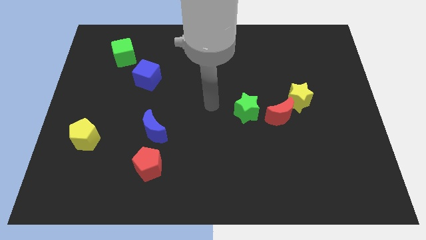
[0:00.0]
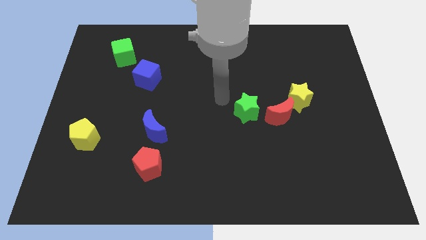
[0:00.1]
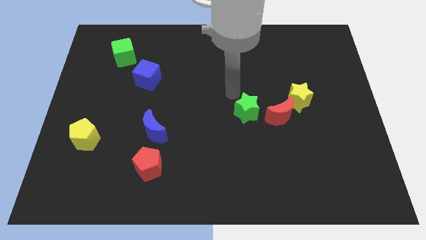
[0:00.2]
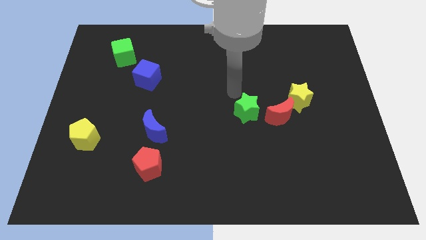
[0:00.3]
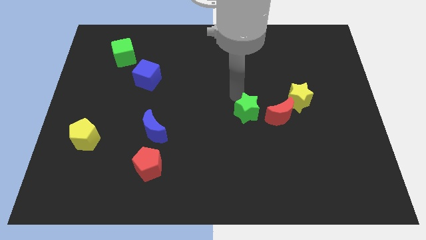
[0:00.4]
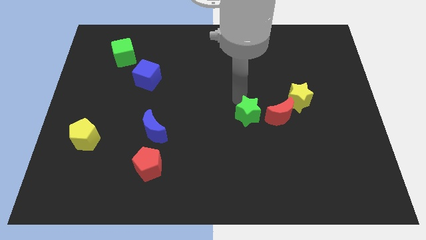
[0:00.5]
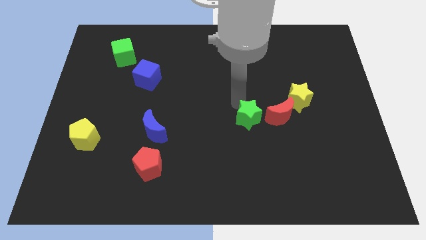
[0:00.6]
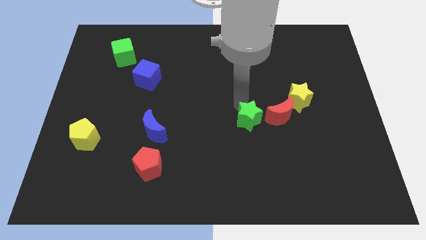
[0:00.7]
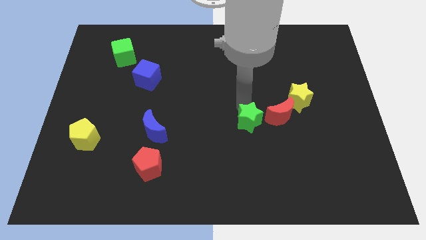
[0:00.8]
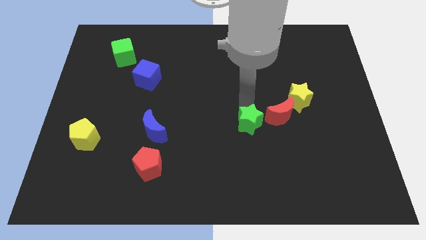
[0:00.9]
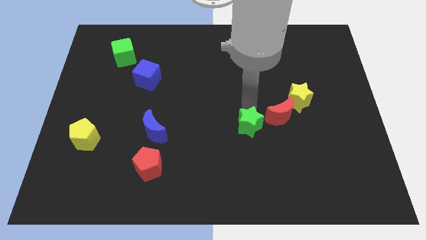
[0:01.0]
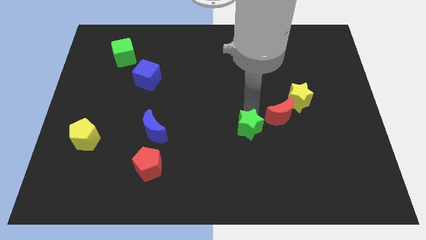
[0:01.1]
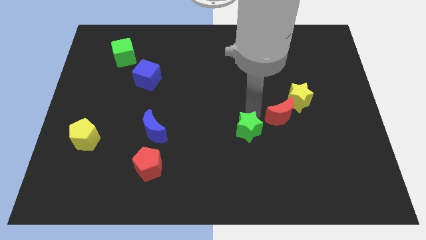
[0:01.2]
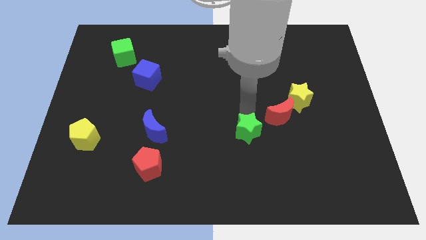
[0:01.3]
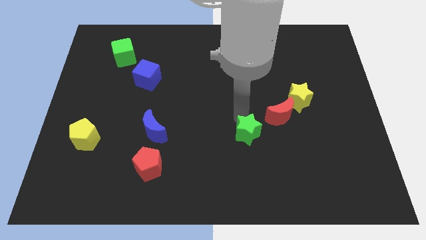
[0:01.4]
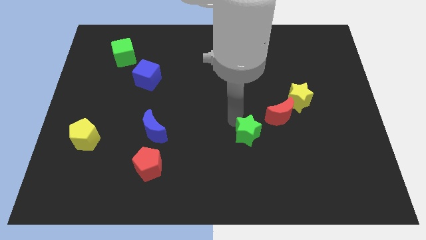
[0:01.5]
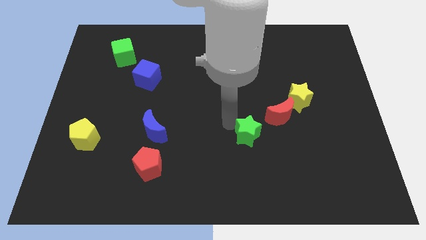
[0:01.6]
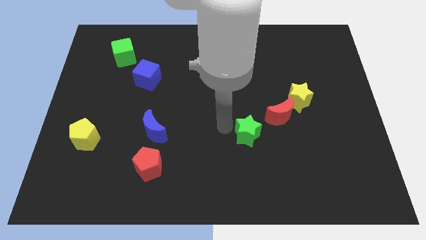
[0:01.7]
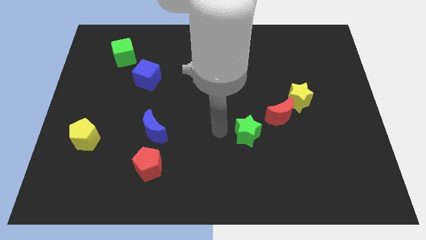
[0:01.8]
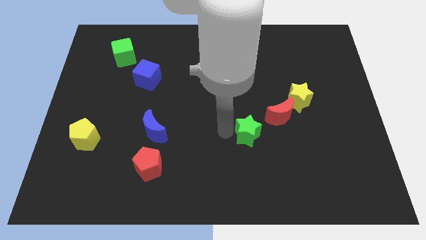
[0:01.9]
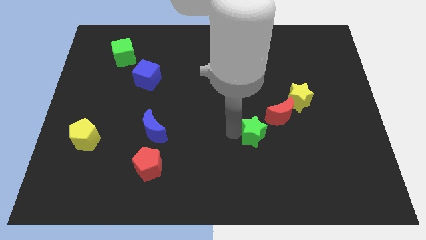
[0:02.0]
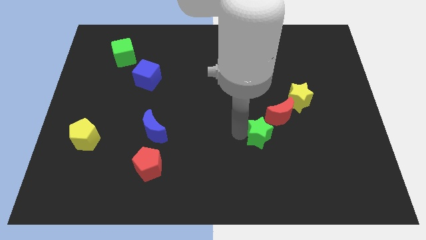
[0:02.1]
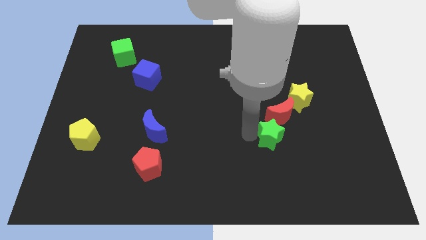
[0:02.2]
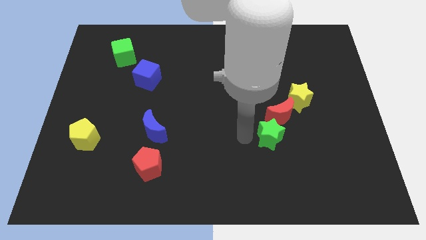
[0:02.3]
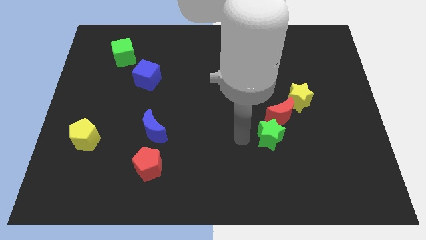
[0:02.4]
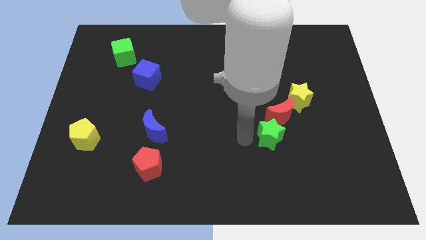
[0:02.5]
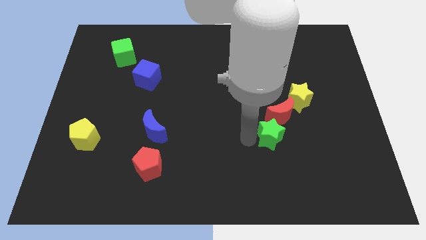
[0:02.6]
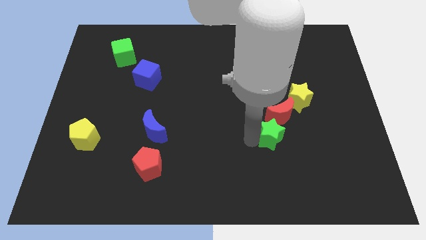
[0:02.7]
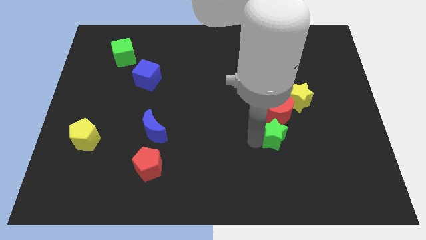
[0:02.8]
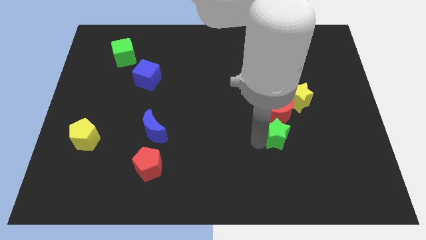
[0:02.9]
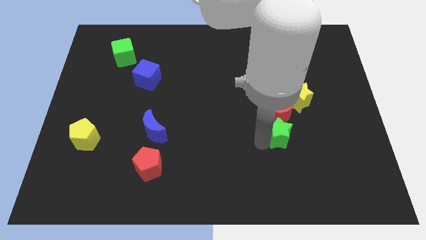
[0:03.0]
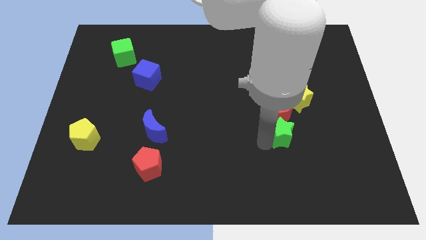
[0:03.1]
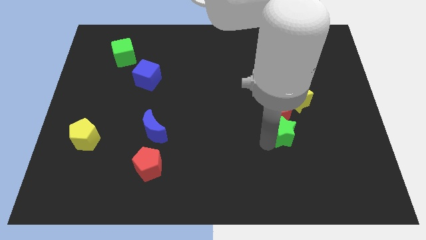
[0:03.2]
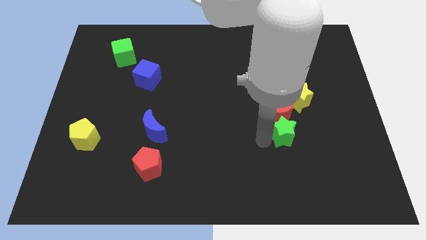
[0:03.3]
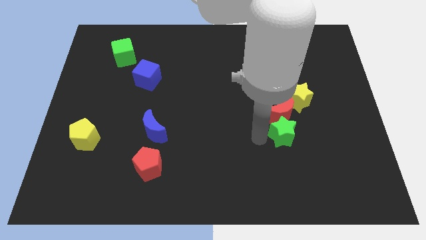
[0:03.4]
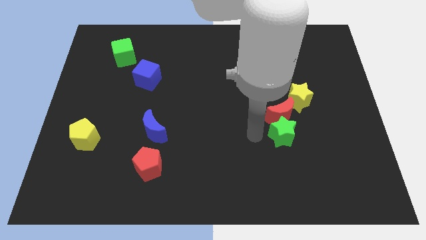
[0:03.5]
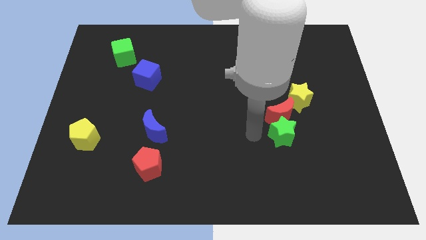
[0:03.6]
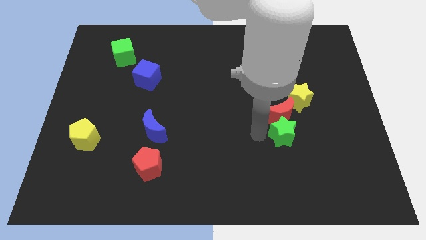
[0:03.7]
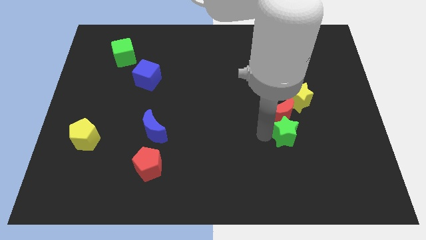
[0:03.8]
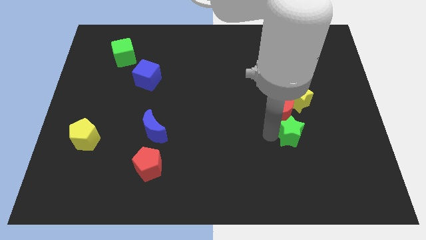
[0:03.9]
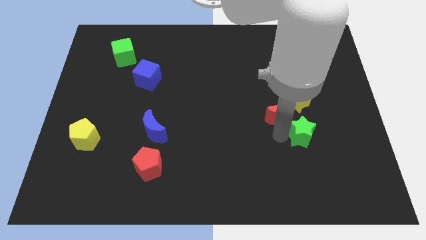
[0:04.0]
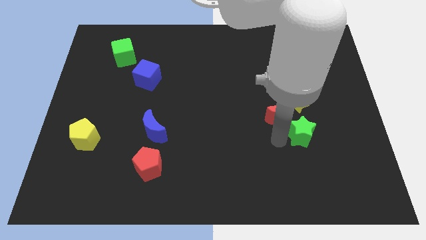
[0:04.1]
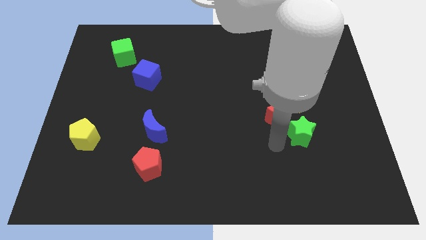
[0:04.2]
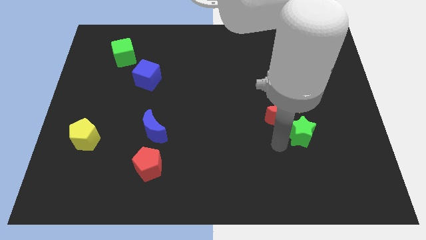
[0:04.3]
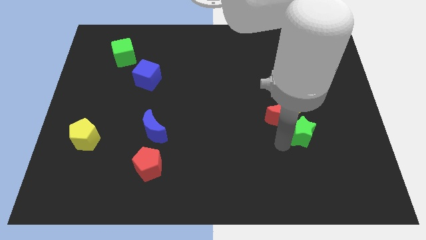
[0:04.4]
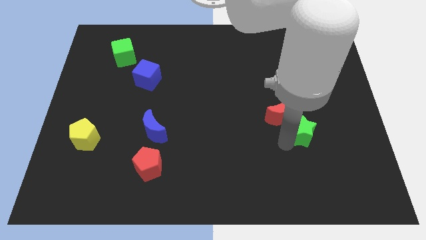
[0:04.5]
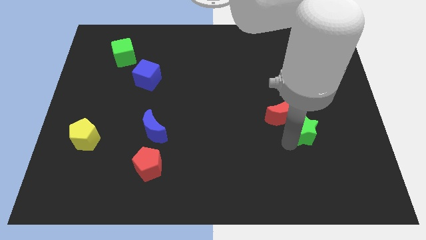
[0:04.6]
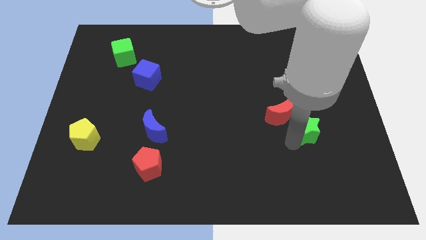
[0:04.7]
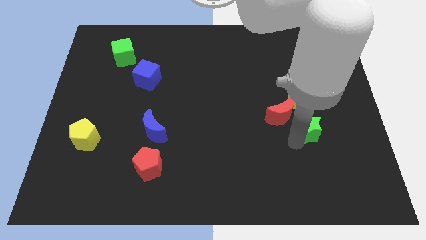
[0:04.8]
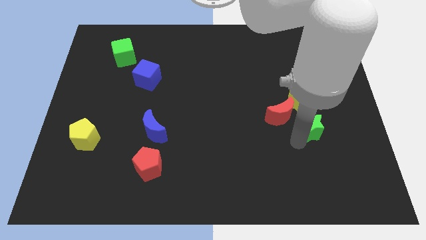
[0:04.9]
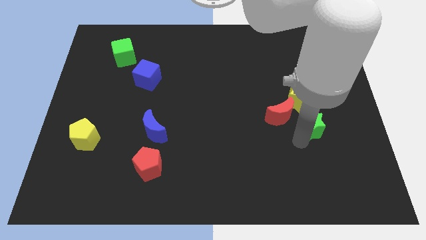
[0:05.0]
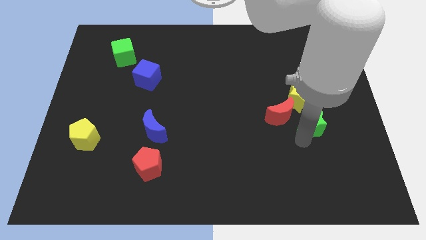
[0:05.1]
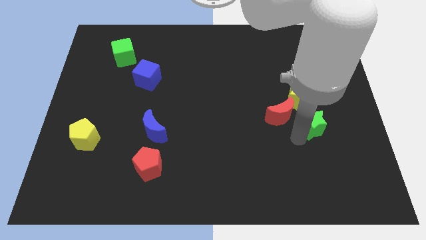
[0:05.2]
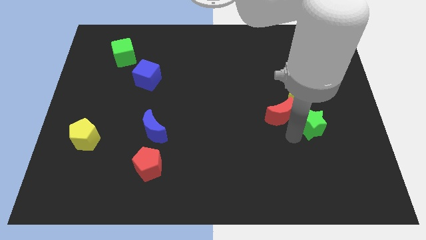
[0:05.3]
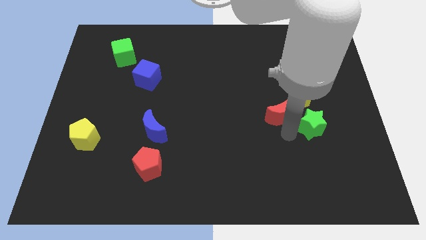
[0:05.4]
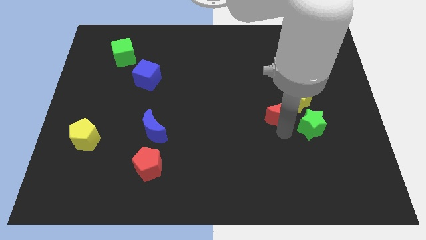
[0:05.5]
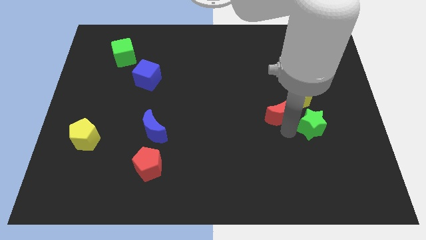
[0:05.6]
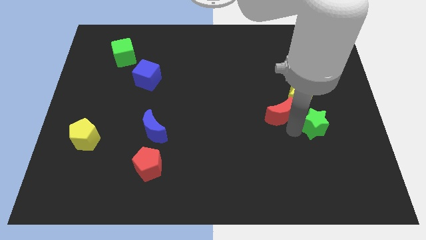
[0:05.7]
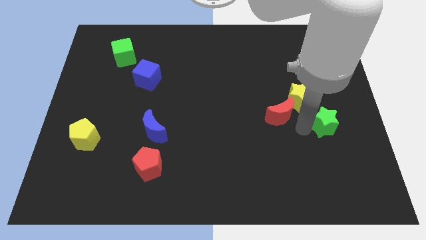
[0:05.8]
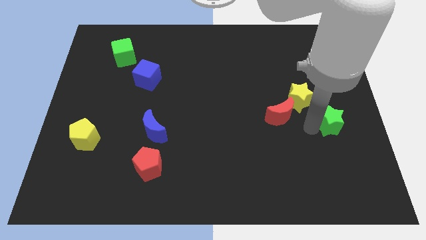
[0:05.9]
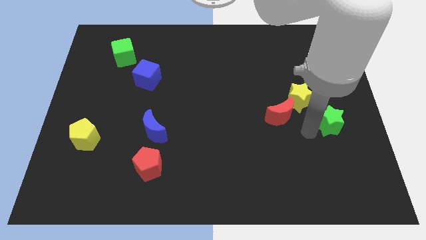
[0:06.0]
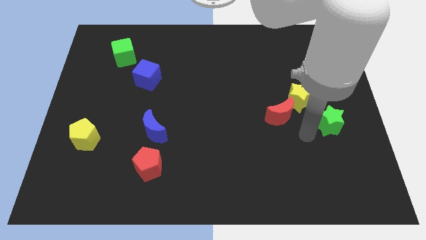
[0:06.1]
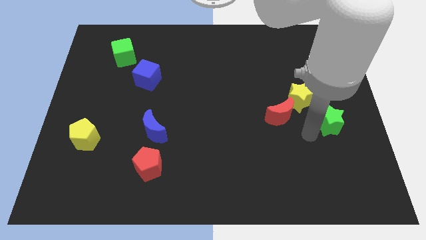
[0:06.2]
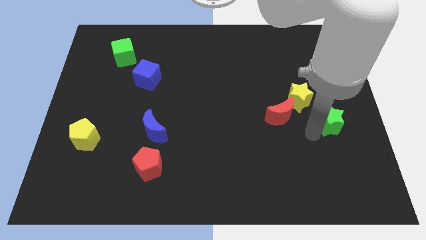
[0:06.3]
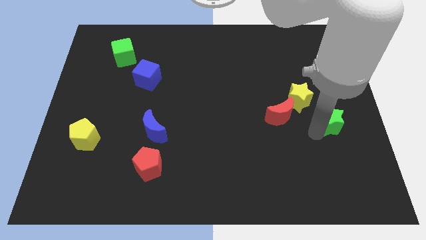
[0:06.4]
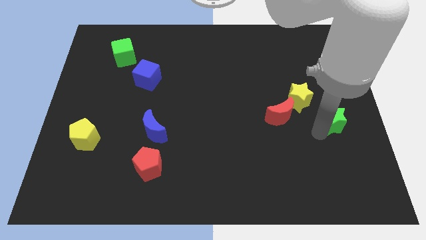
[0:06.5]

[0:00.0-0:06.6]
put the green star to the center right
